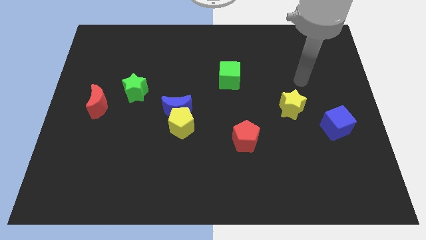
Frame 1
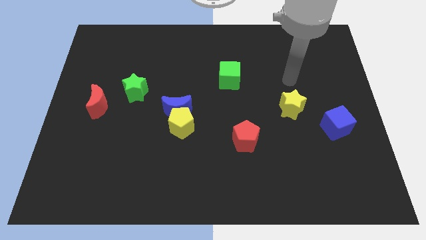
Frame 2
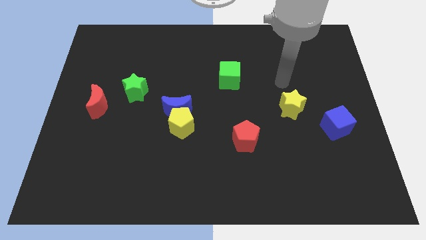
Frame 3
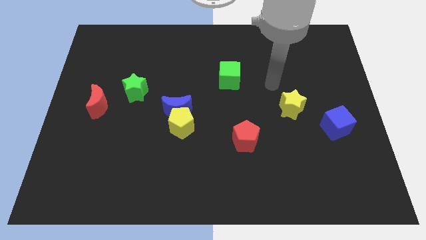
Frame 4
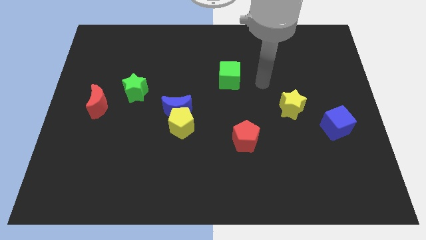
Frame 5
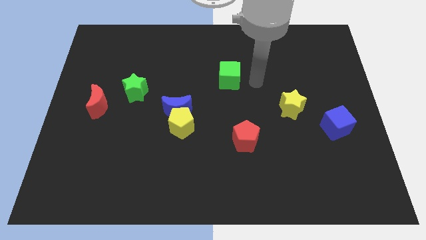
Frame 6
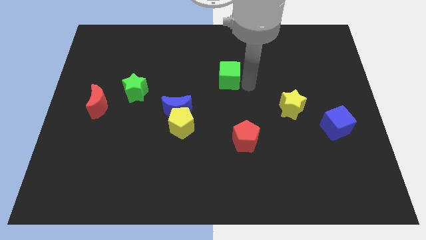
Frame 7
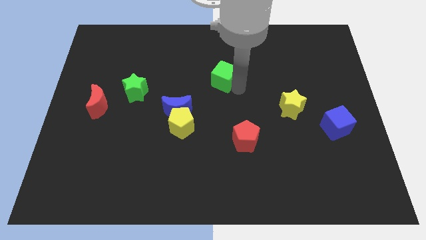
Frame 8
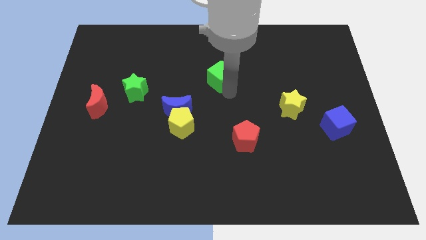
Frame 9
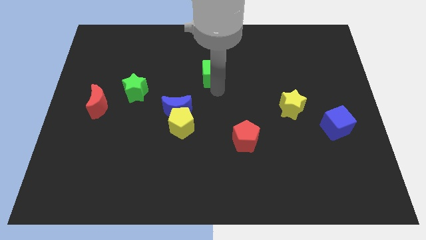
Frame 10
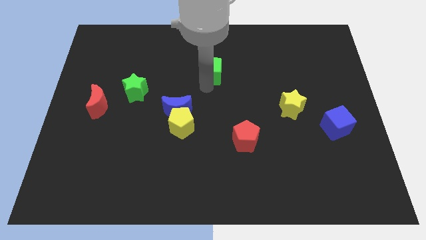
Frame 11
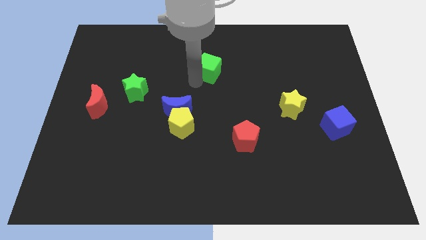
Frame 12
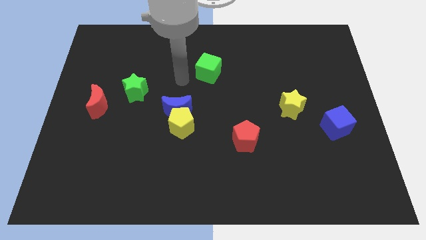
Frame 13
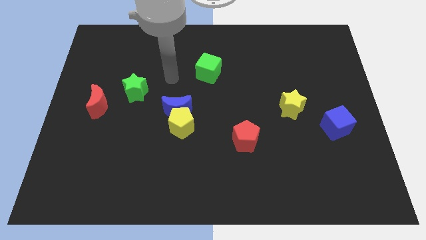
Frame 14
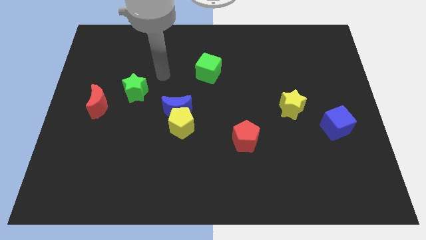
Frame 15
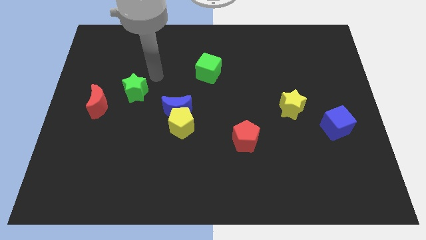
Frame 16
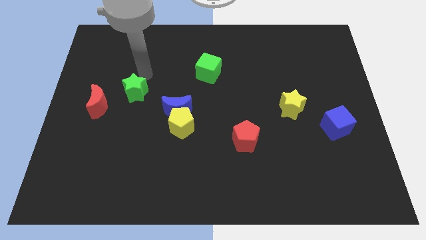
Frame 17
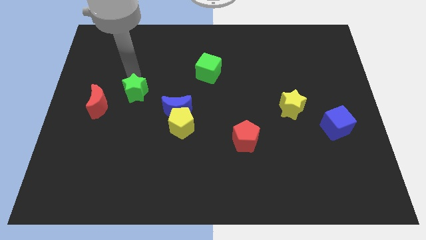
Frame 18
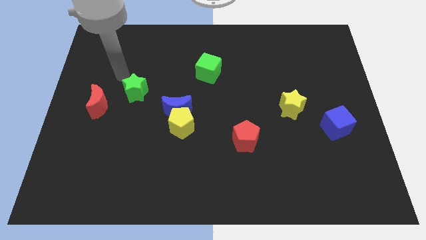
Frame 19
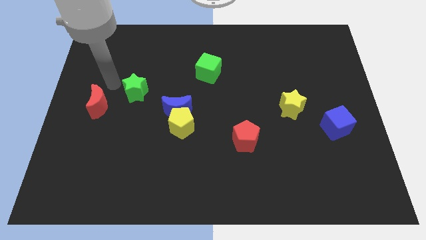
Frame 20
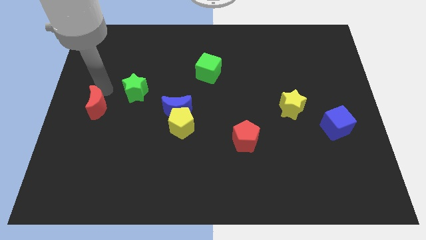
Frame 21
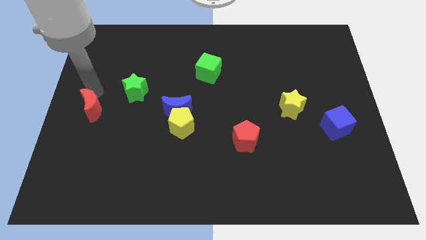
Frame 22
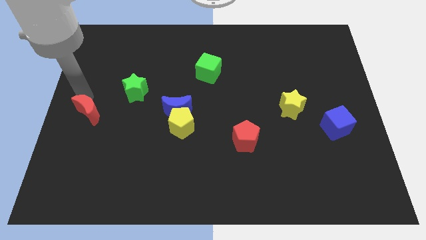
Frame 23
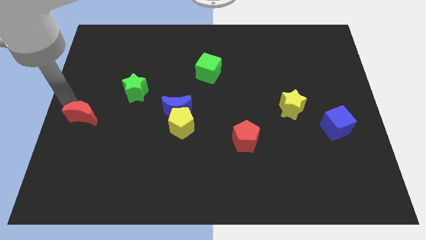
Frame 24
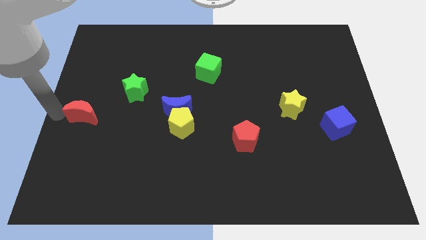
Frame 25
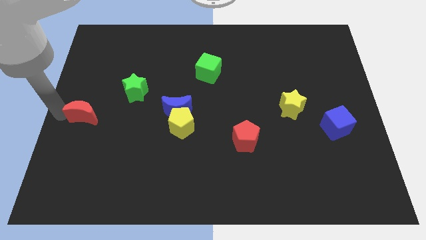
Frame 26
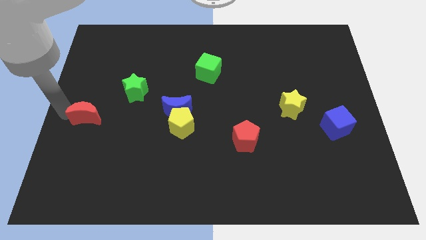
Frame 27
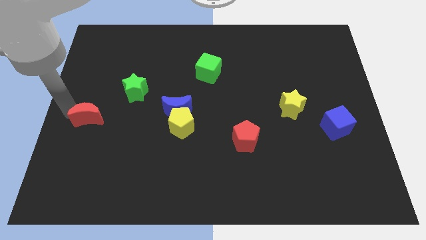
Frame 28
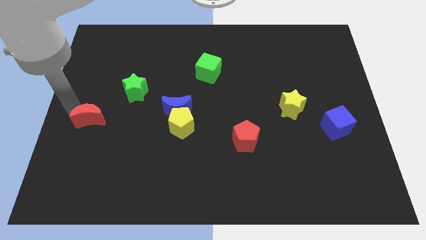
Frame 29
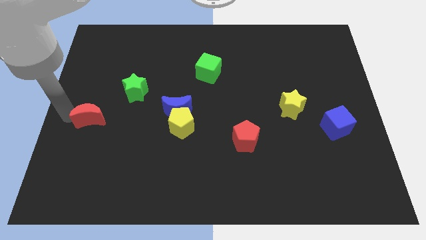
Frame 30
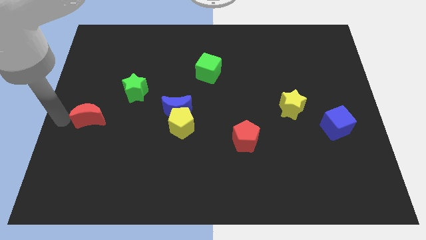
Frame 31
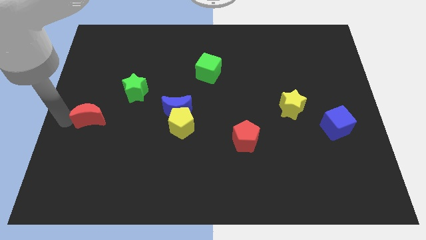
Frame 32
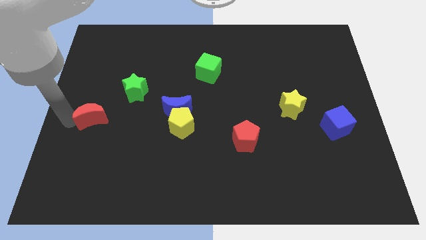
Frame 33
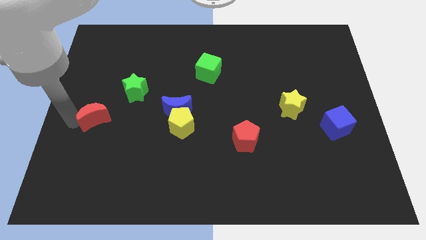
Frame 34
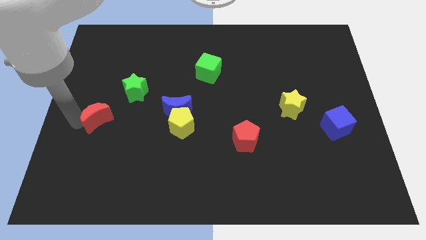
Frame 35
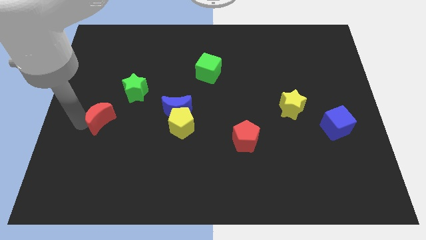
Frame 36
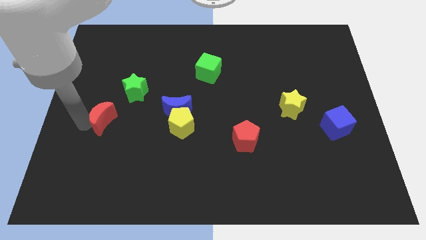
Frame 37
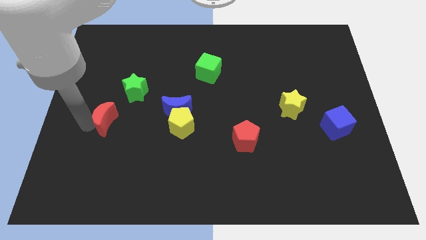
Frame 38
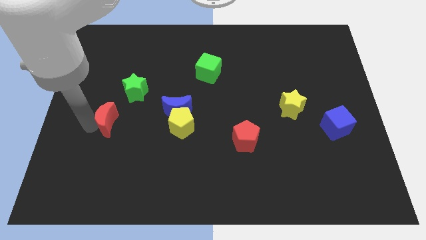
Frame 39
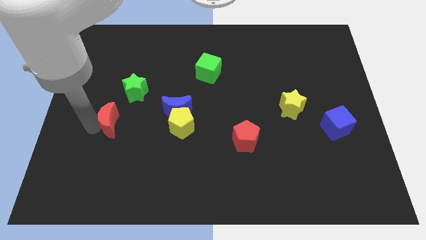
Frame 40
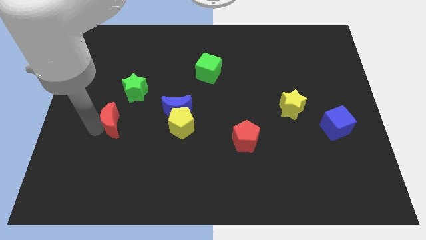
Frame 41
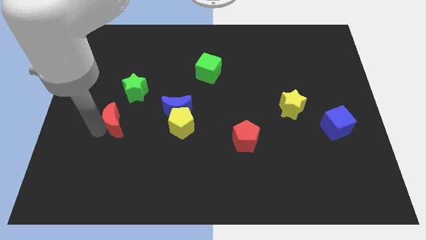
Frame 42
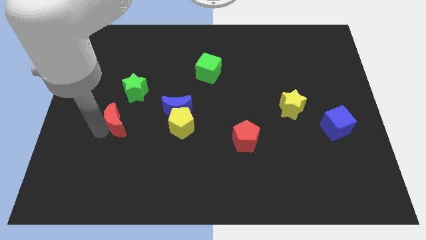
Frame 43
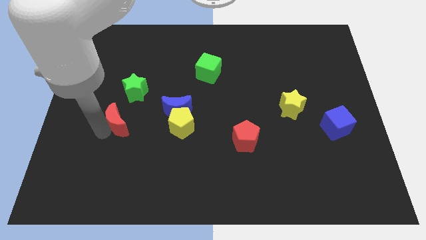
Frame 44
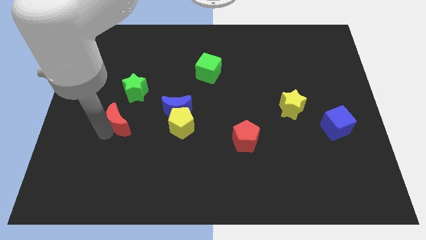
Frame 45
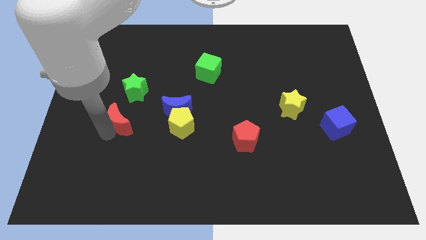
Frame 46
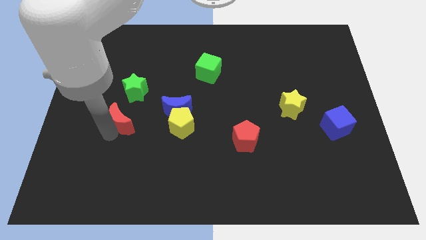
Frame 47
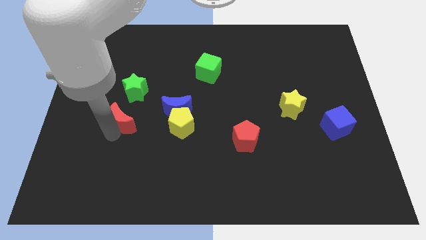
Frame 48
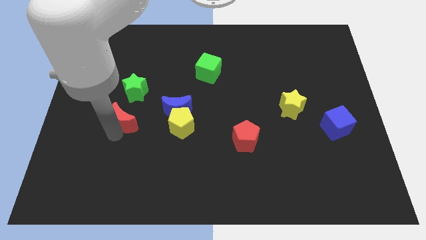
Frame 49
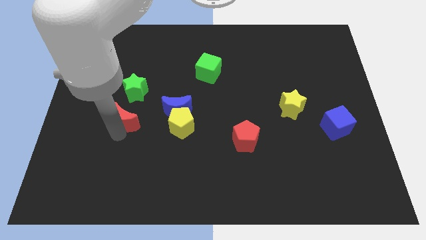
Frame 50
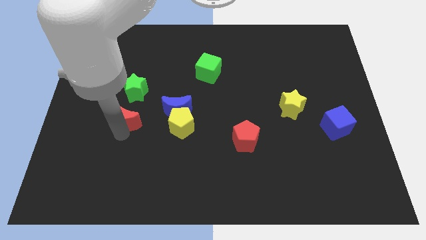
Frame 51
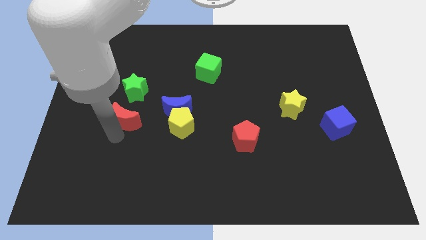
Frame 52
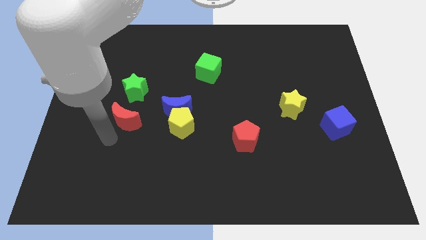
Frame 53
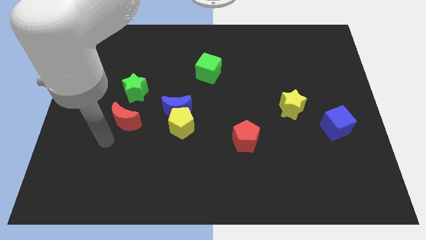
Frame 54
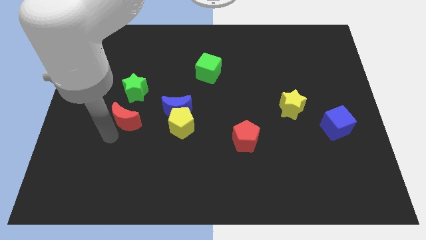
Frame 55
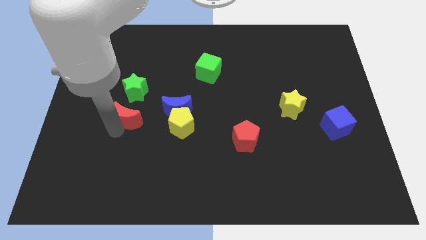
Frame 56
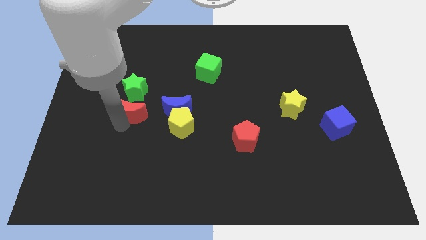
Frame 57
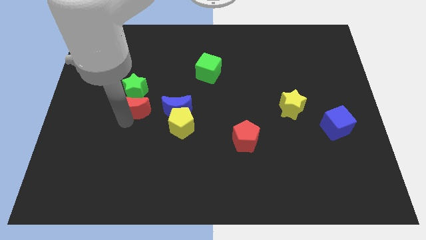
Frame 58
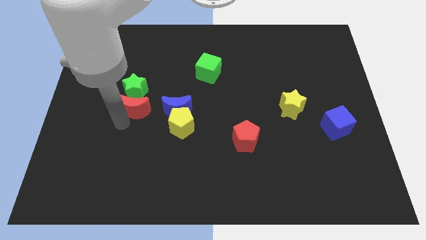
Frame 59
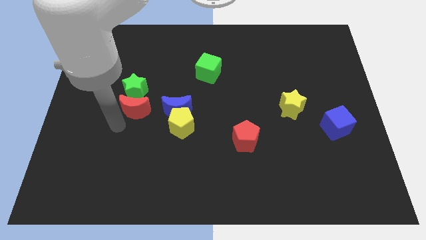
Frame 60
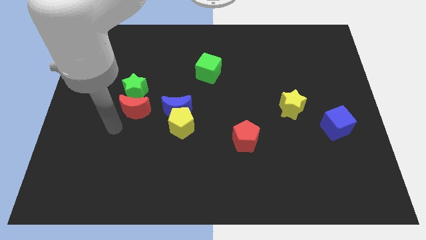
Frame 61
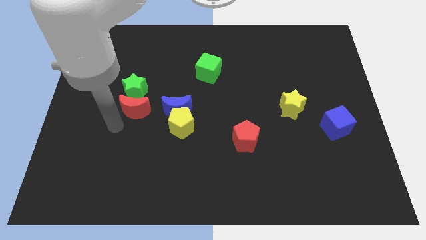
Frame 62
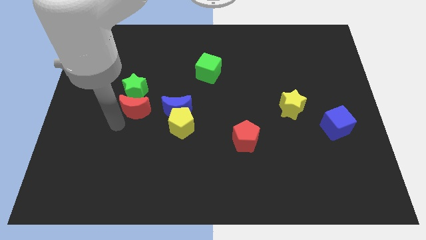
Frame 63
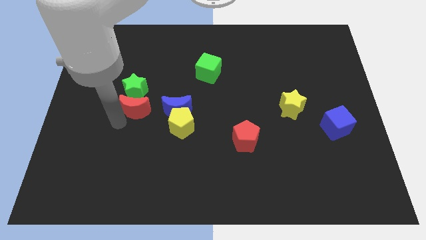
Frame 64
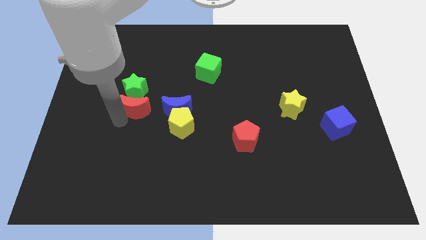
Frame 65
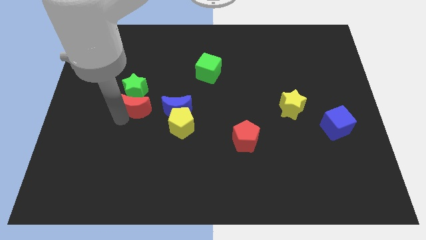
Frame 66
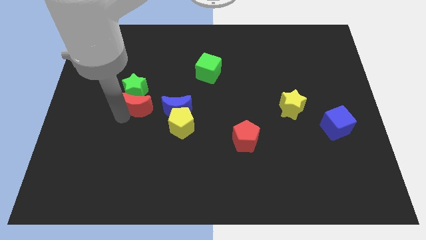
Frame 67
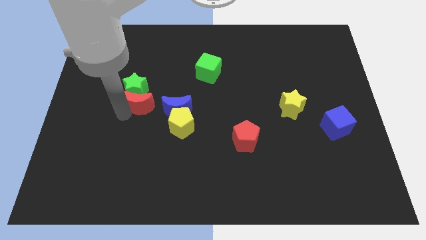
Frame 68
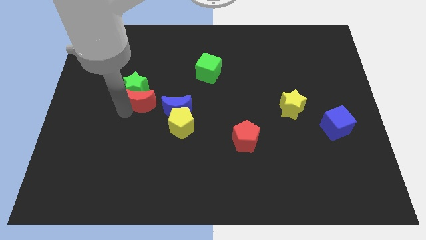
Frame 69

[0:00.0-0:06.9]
put the red moon diagonally up and to the left of the blue moon

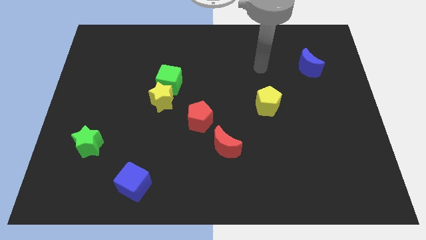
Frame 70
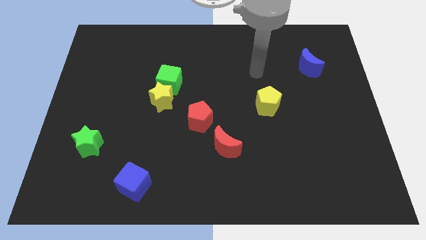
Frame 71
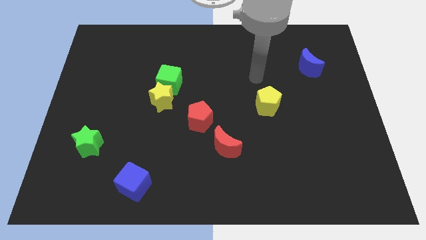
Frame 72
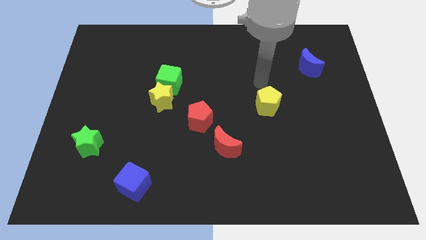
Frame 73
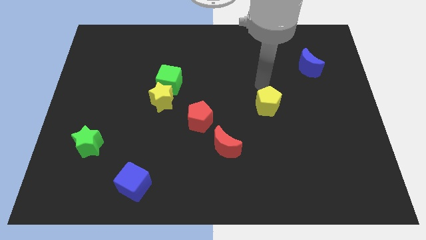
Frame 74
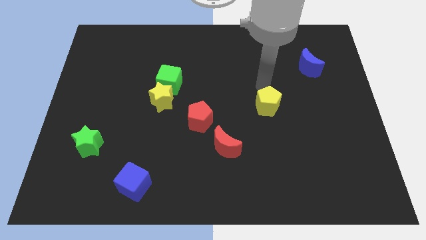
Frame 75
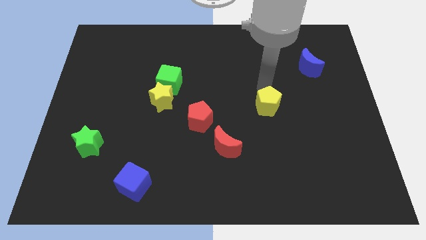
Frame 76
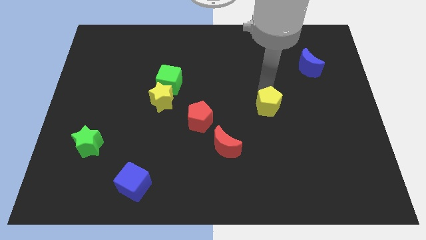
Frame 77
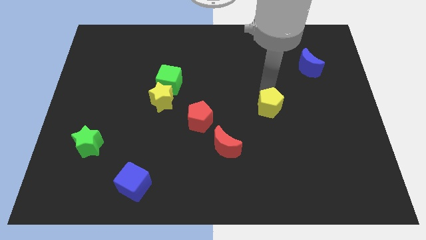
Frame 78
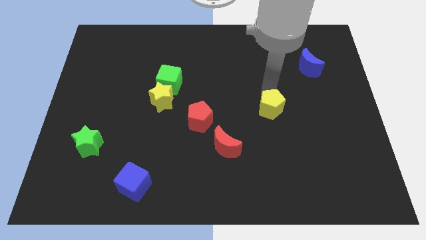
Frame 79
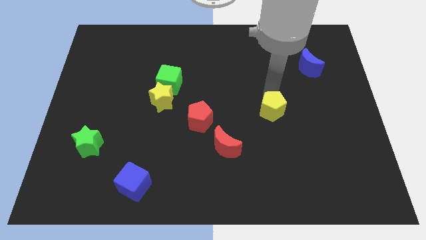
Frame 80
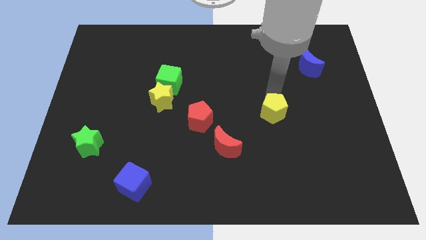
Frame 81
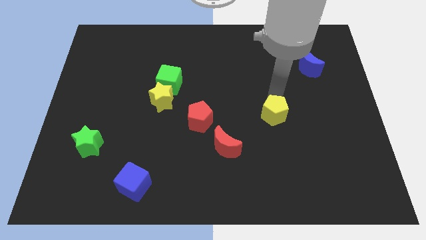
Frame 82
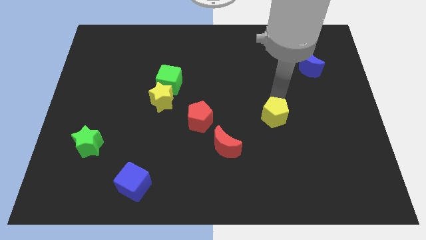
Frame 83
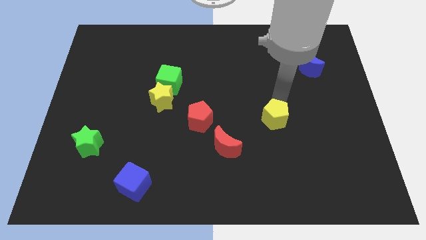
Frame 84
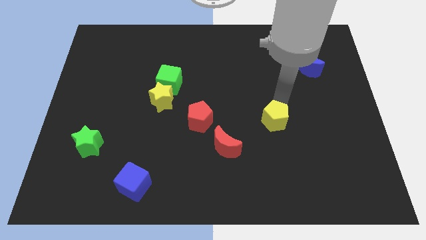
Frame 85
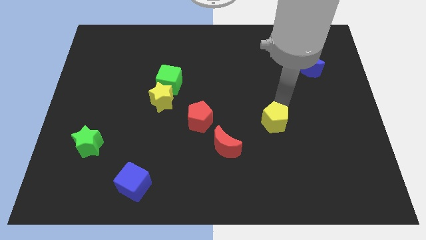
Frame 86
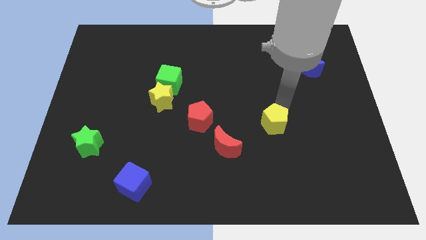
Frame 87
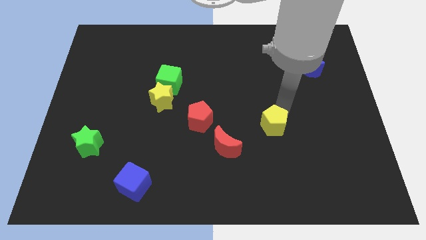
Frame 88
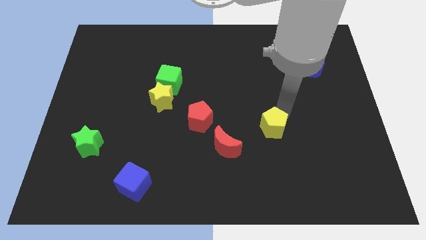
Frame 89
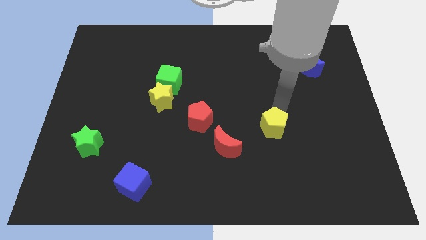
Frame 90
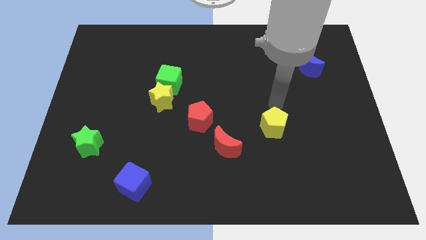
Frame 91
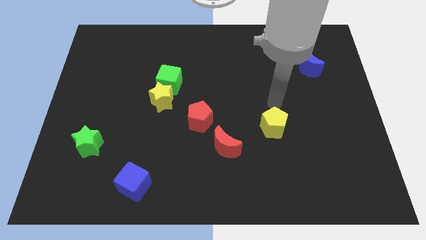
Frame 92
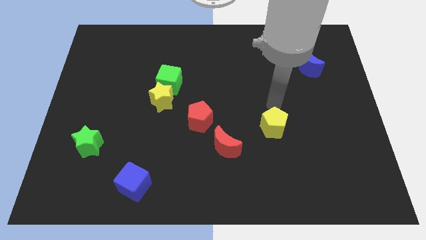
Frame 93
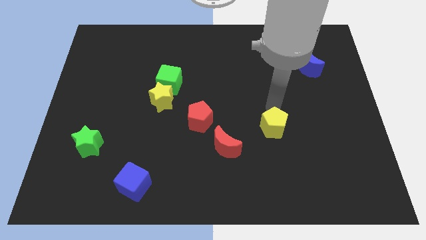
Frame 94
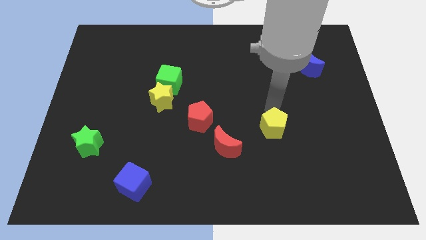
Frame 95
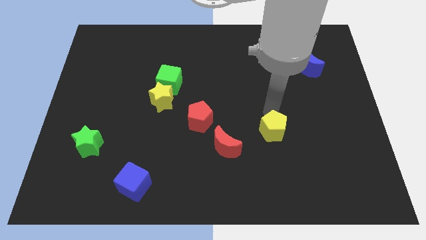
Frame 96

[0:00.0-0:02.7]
slide the yellow pentagon right of the red moon
